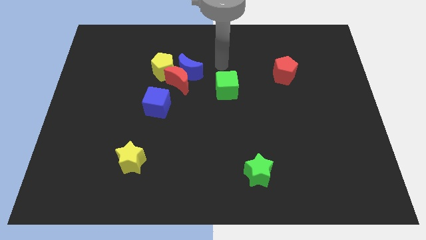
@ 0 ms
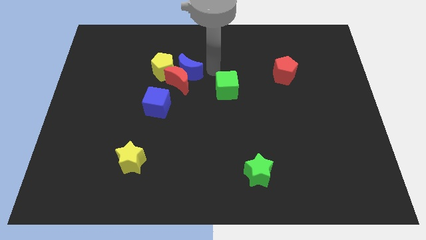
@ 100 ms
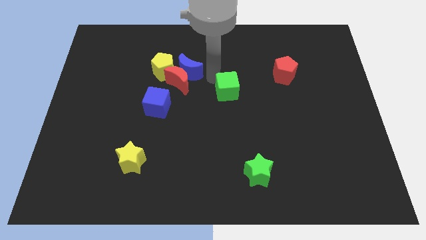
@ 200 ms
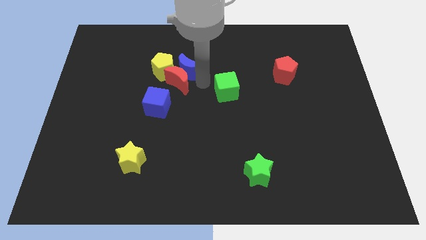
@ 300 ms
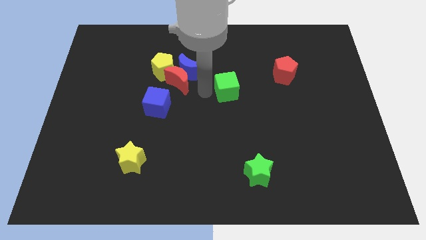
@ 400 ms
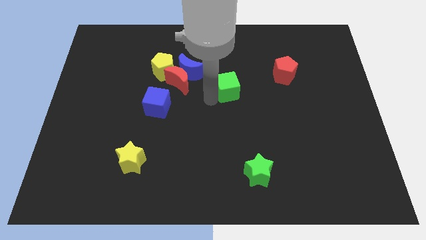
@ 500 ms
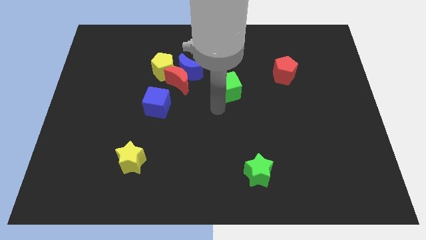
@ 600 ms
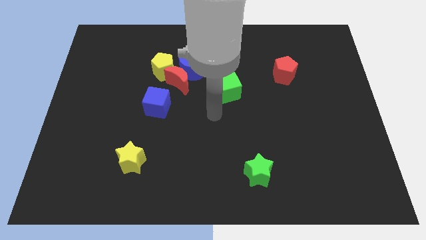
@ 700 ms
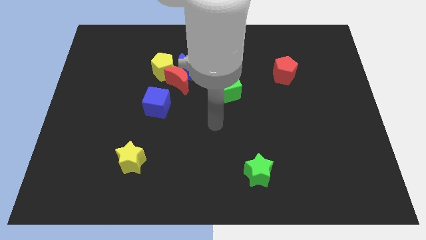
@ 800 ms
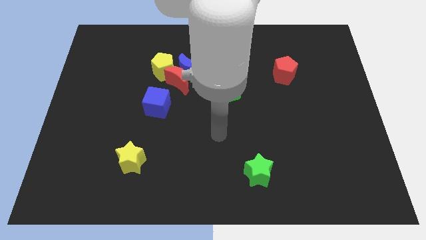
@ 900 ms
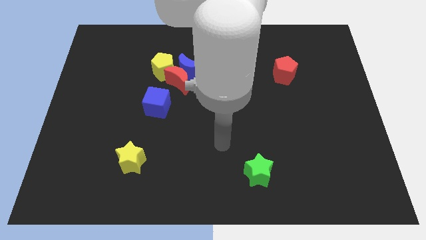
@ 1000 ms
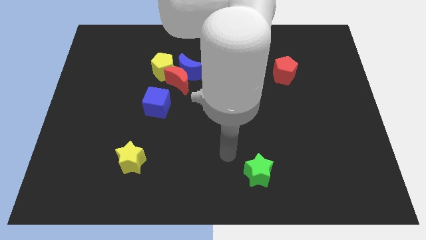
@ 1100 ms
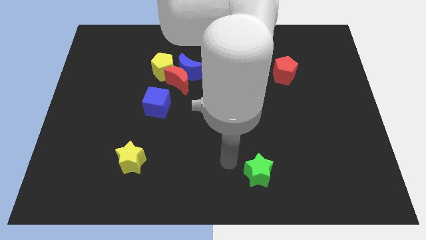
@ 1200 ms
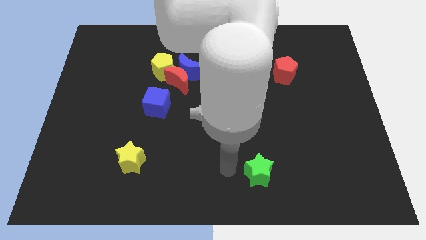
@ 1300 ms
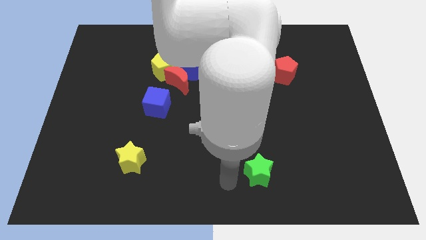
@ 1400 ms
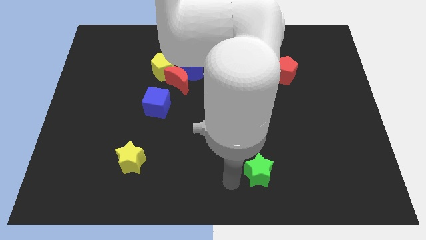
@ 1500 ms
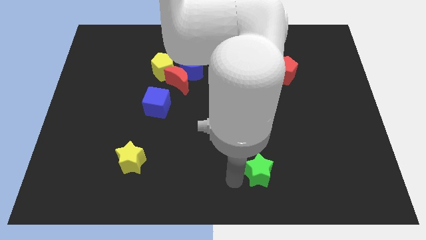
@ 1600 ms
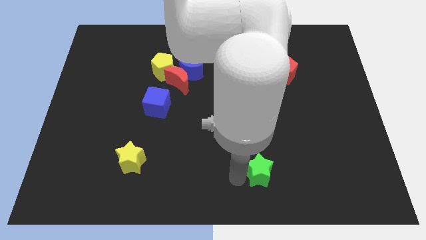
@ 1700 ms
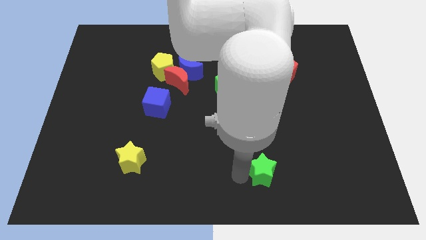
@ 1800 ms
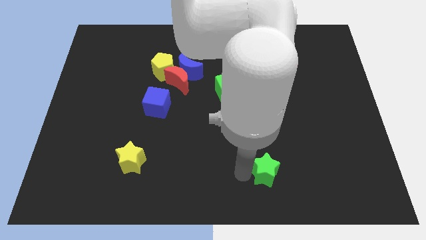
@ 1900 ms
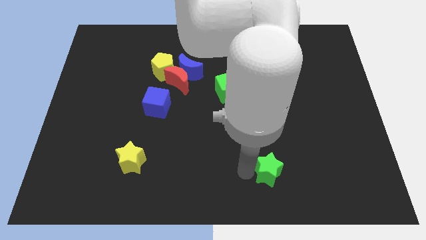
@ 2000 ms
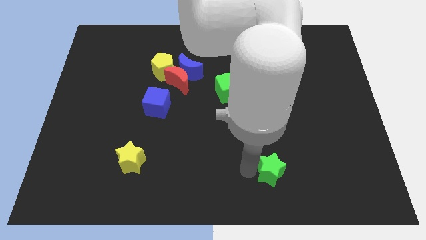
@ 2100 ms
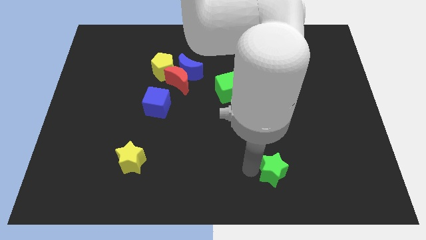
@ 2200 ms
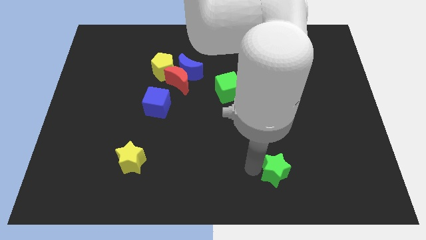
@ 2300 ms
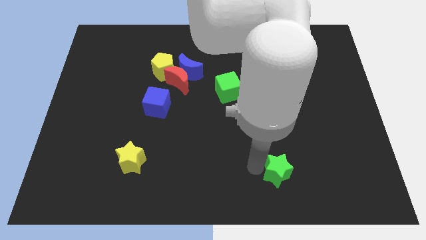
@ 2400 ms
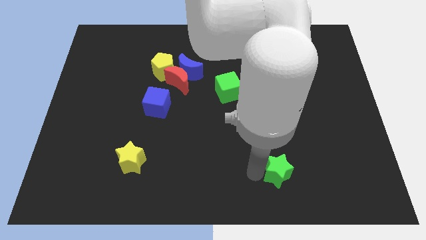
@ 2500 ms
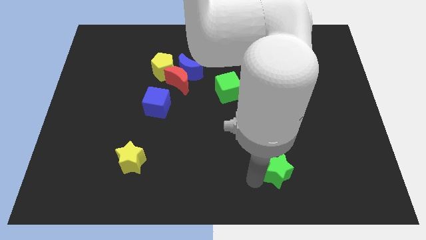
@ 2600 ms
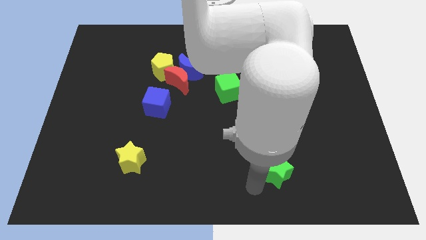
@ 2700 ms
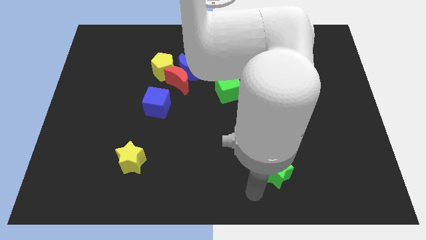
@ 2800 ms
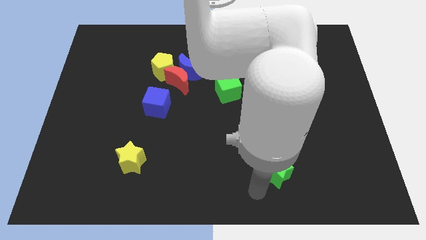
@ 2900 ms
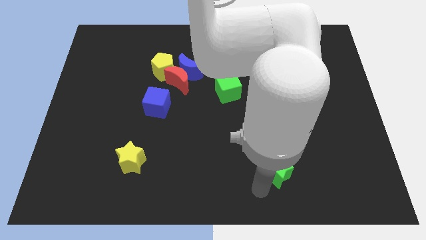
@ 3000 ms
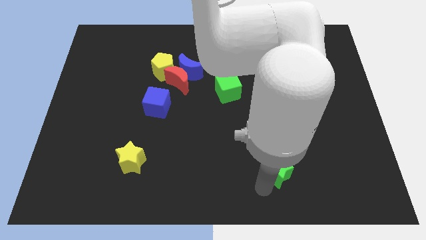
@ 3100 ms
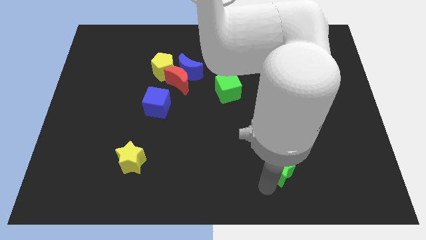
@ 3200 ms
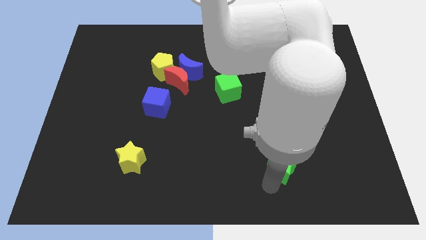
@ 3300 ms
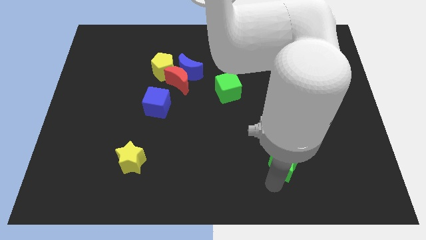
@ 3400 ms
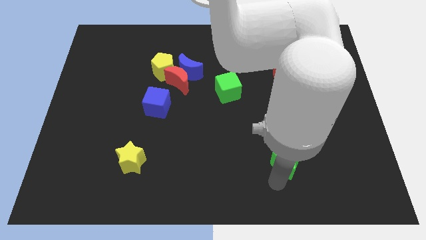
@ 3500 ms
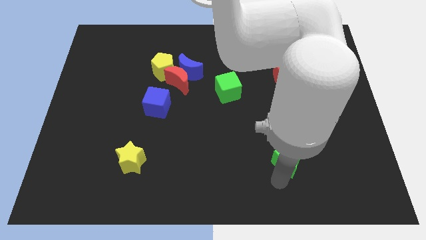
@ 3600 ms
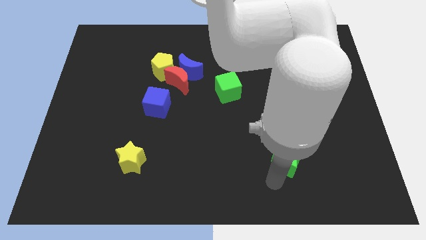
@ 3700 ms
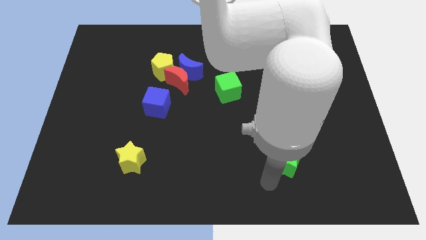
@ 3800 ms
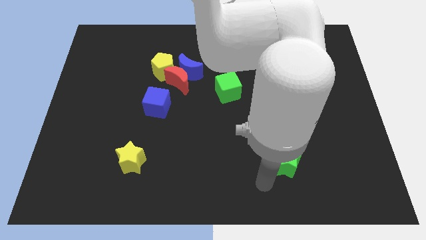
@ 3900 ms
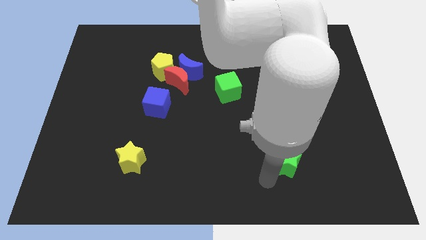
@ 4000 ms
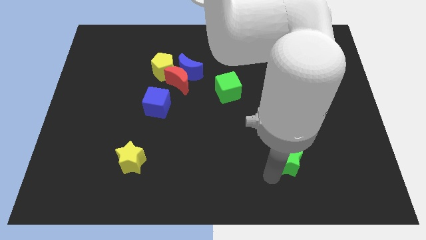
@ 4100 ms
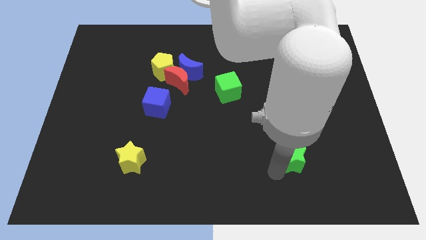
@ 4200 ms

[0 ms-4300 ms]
slightly move the green star up and then to the right

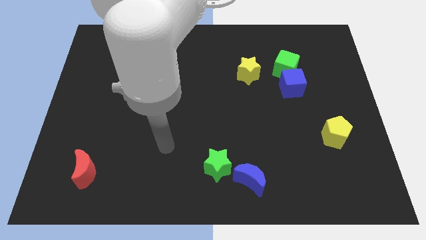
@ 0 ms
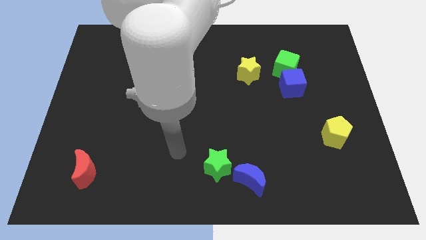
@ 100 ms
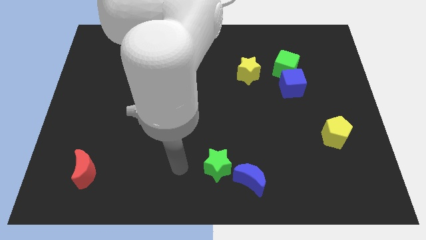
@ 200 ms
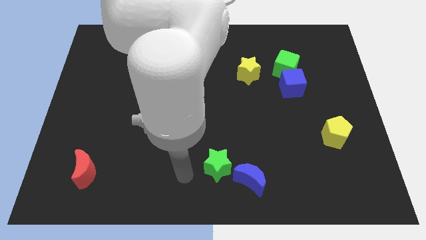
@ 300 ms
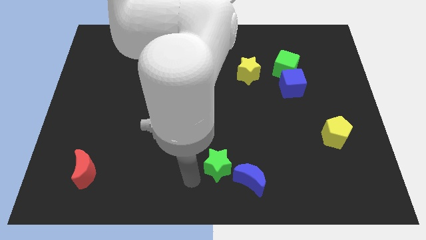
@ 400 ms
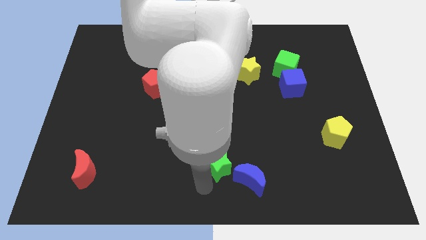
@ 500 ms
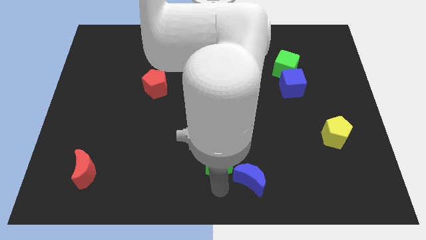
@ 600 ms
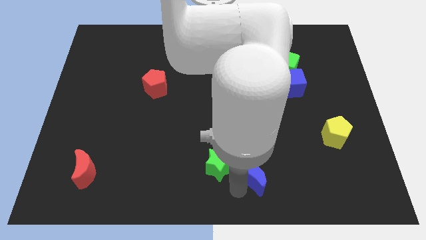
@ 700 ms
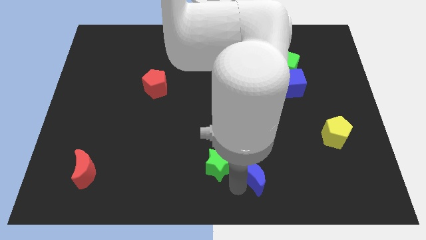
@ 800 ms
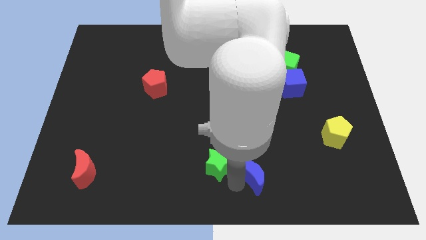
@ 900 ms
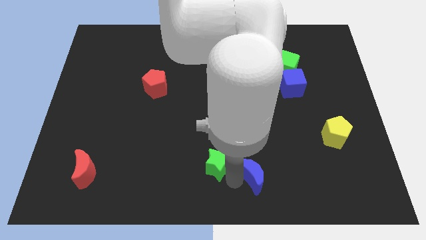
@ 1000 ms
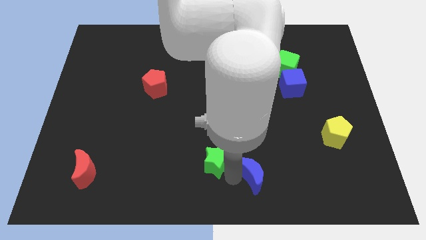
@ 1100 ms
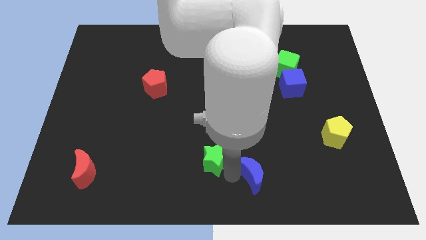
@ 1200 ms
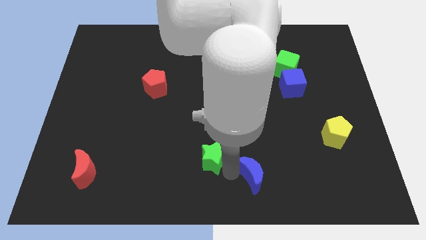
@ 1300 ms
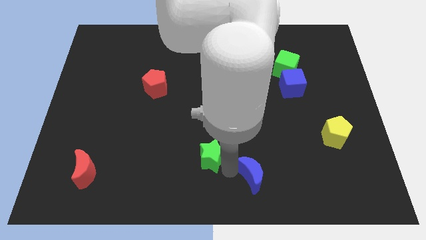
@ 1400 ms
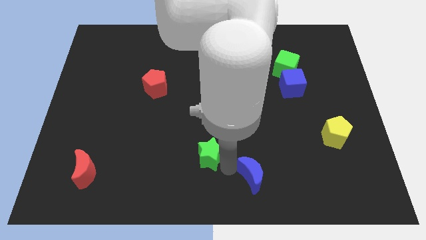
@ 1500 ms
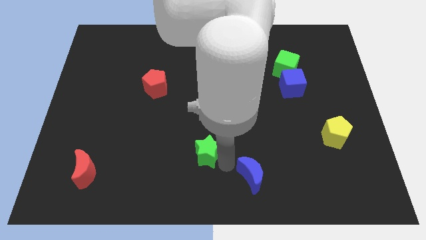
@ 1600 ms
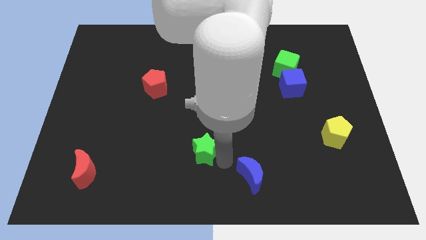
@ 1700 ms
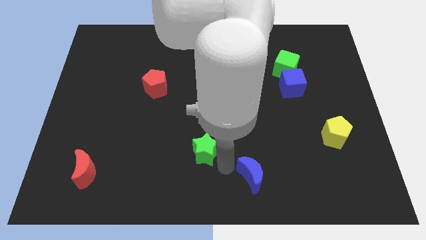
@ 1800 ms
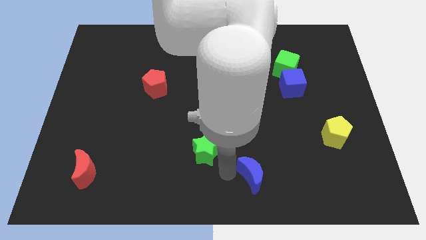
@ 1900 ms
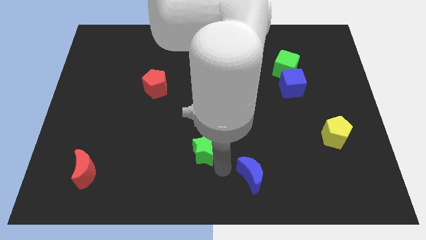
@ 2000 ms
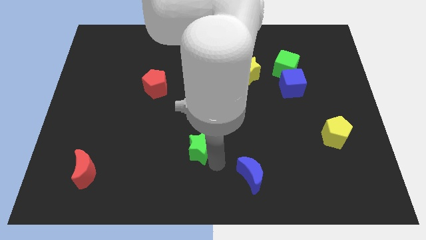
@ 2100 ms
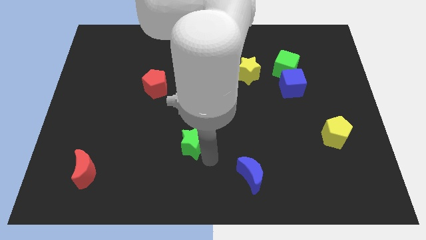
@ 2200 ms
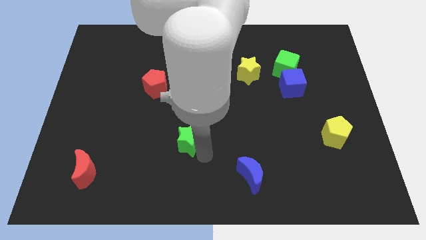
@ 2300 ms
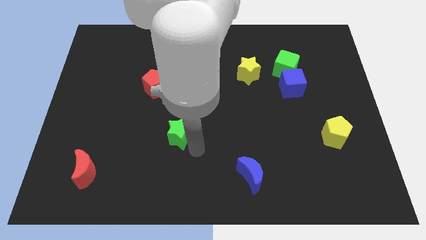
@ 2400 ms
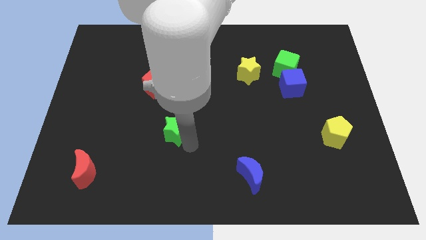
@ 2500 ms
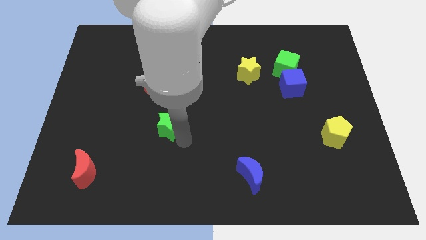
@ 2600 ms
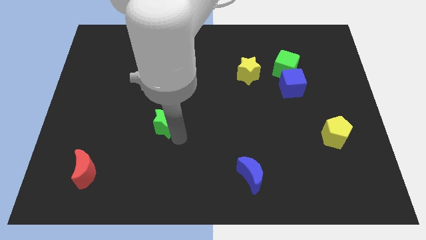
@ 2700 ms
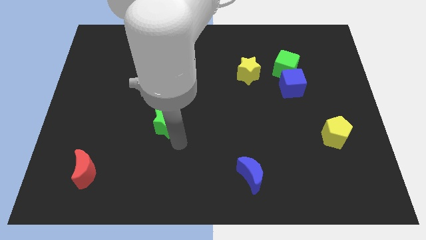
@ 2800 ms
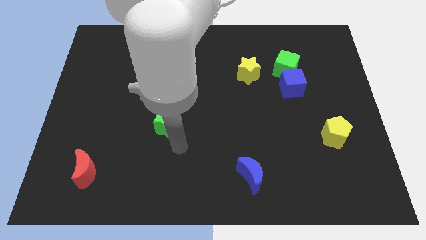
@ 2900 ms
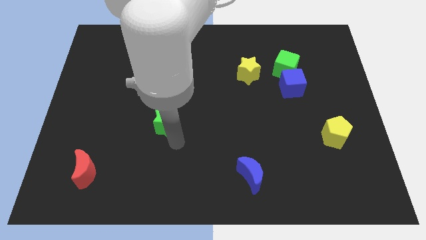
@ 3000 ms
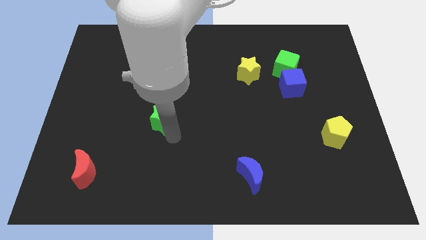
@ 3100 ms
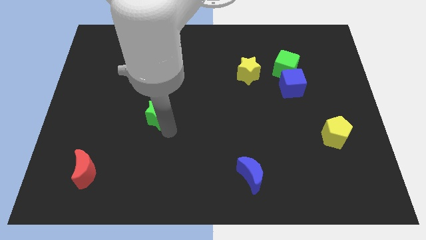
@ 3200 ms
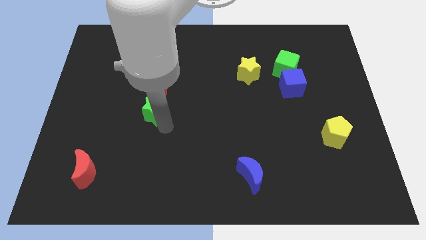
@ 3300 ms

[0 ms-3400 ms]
slide the green star upwards and left diagonally

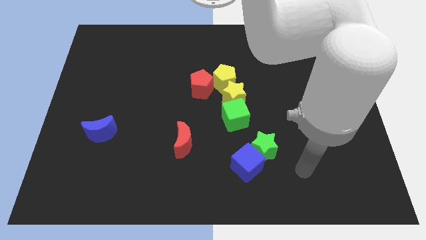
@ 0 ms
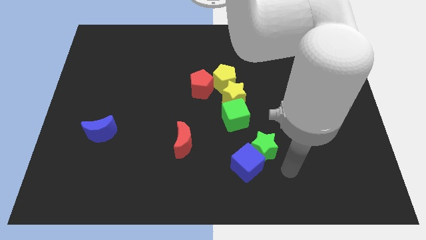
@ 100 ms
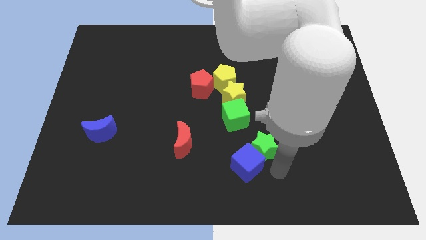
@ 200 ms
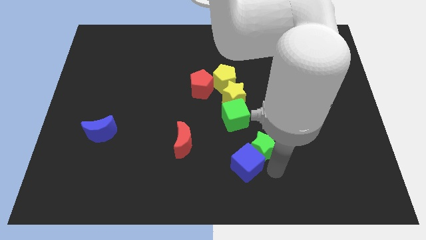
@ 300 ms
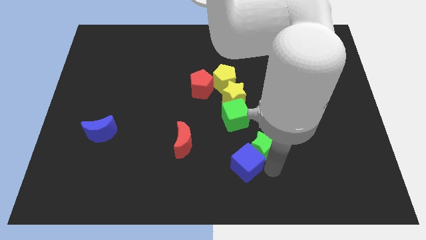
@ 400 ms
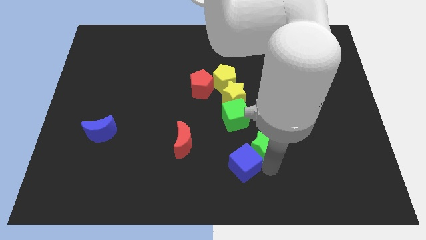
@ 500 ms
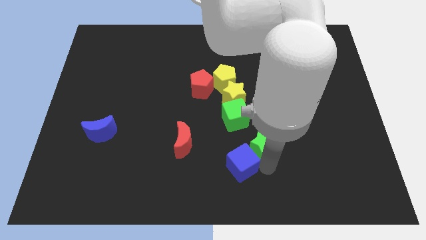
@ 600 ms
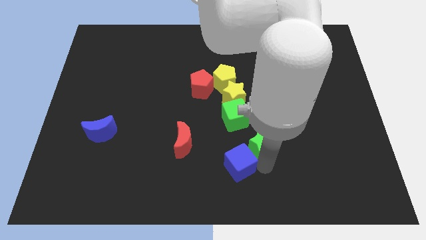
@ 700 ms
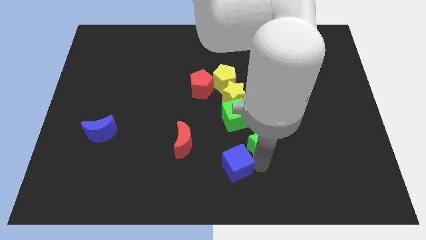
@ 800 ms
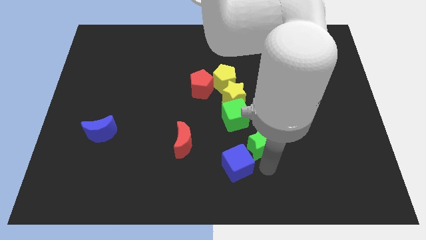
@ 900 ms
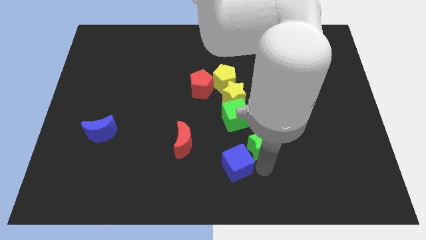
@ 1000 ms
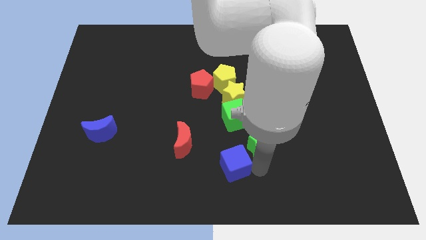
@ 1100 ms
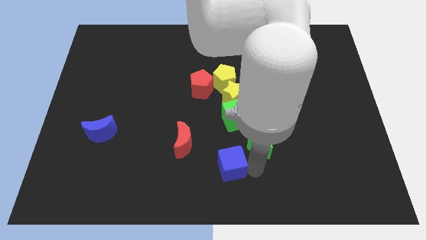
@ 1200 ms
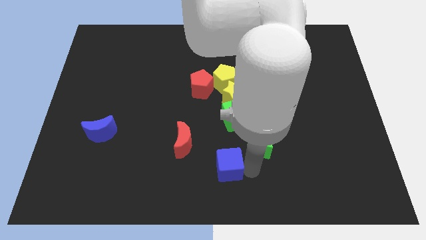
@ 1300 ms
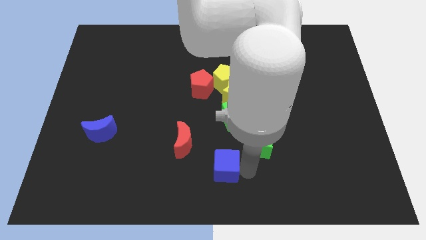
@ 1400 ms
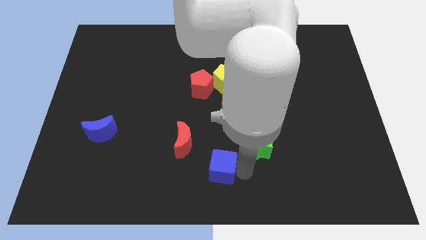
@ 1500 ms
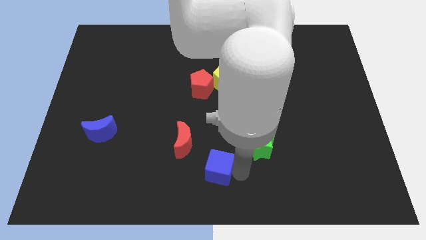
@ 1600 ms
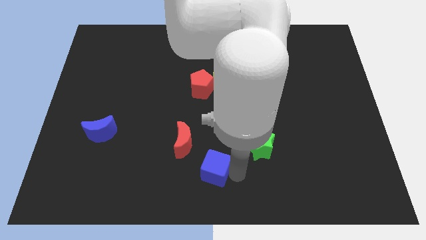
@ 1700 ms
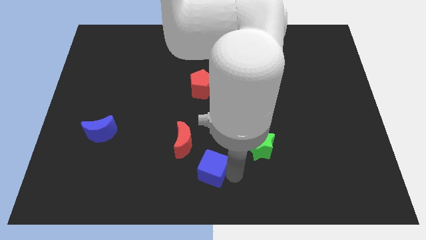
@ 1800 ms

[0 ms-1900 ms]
slide the blue cube a bit to the left
